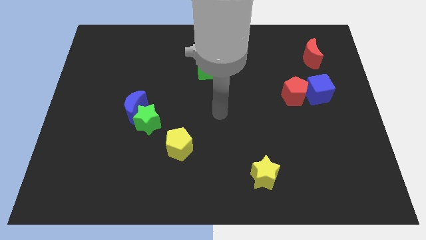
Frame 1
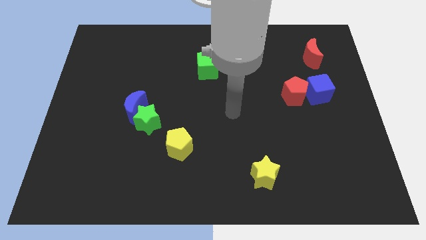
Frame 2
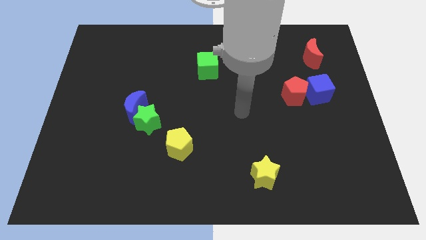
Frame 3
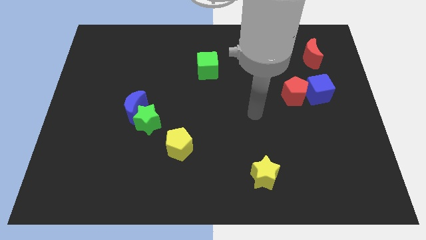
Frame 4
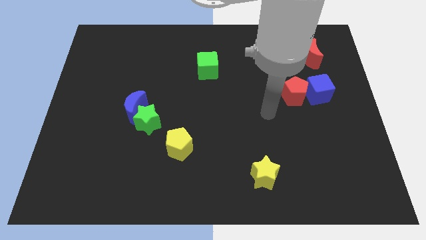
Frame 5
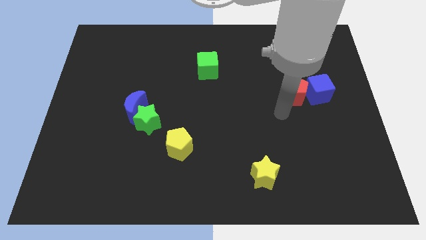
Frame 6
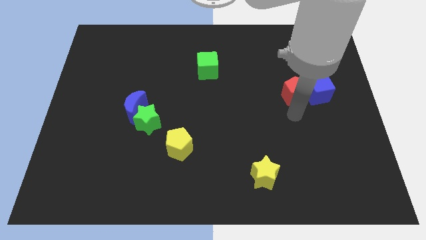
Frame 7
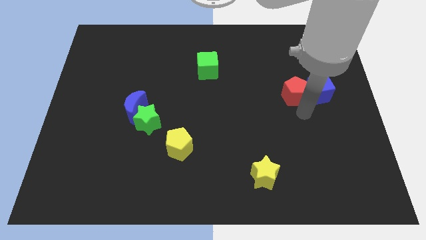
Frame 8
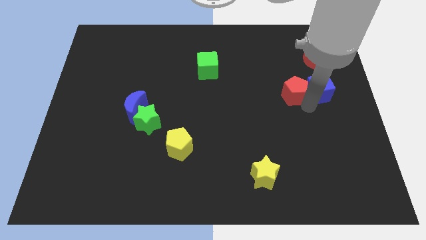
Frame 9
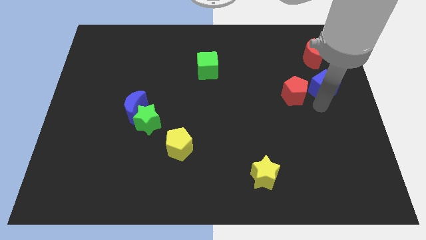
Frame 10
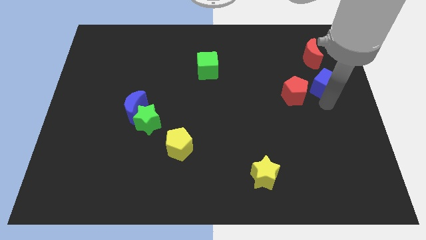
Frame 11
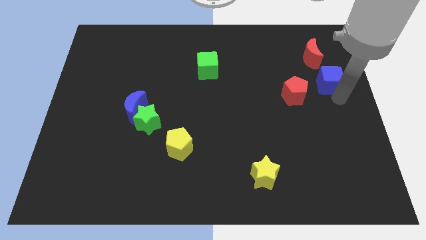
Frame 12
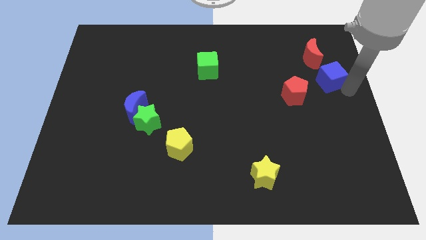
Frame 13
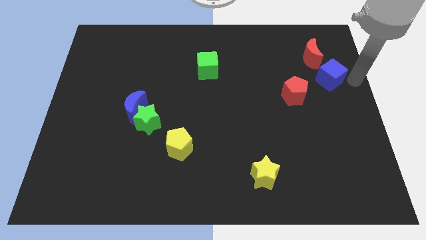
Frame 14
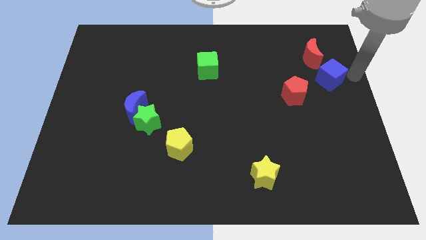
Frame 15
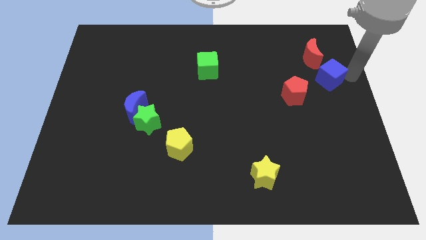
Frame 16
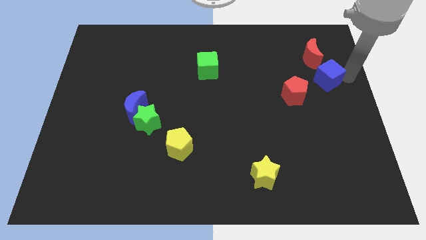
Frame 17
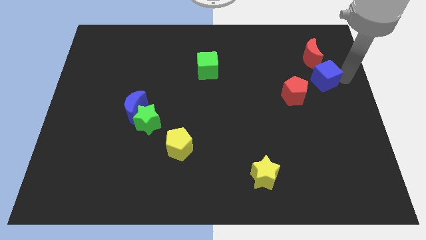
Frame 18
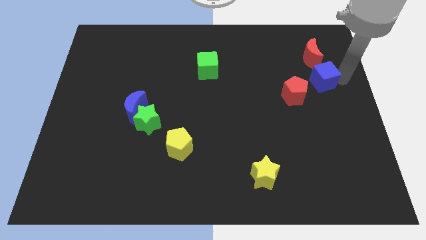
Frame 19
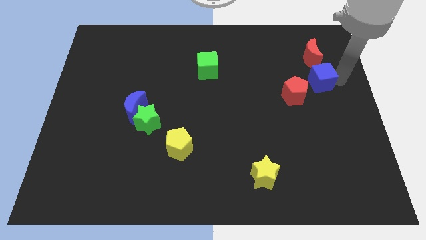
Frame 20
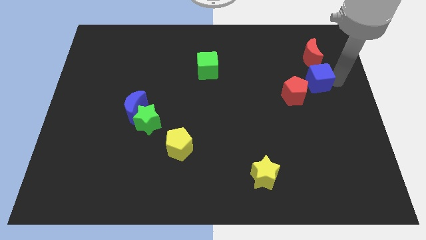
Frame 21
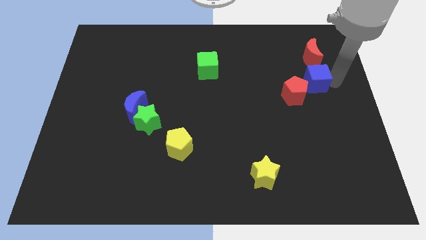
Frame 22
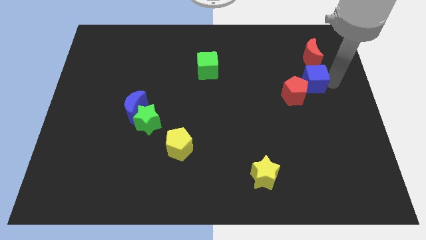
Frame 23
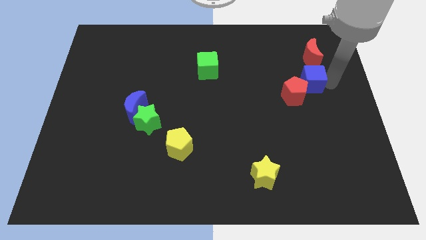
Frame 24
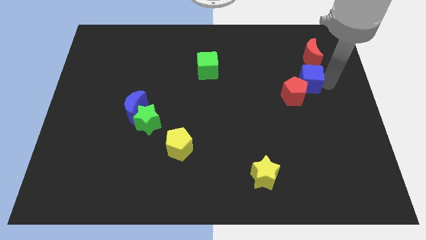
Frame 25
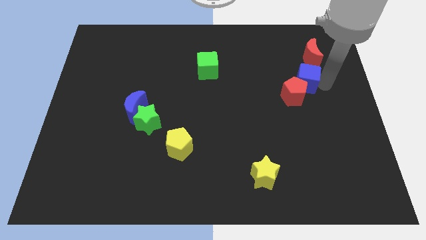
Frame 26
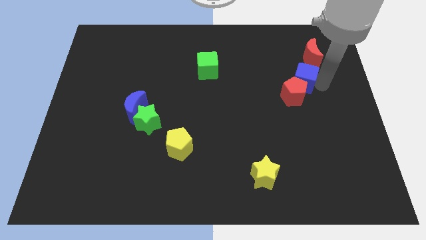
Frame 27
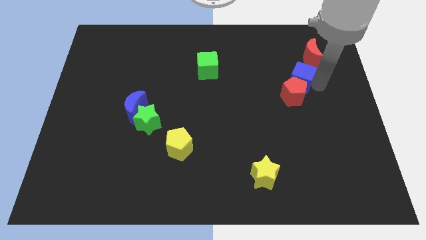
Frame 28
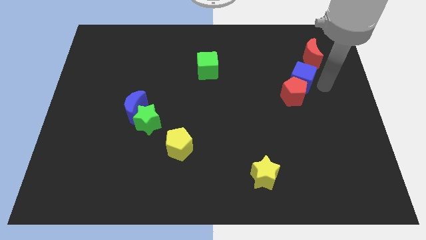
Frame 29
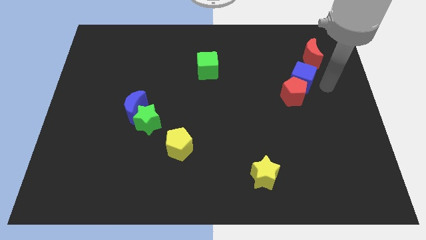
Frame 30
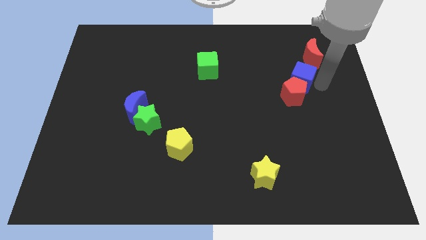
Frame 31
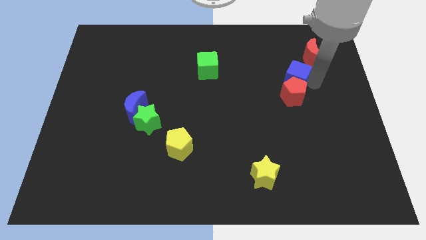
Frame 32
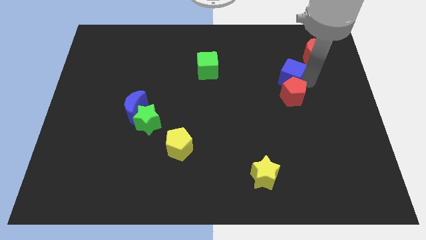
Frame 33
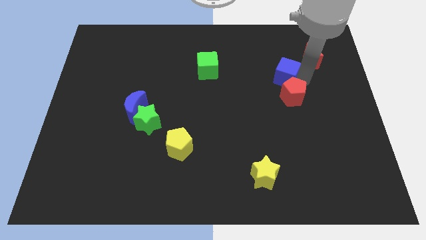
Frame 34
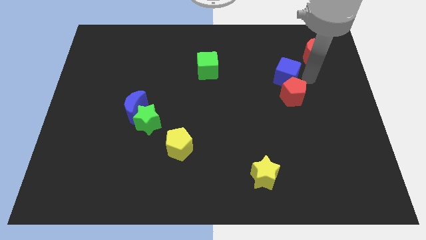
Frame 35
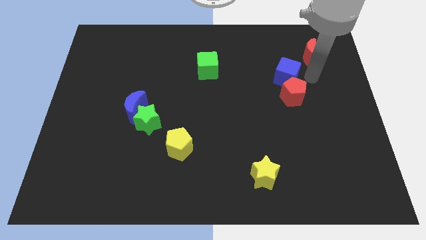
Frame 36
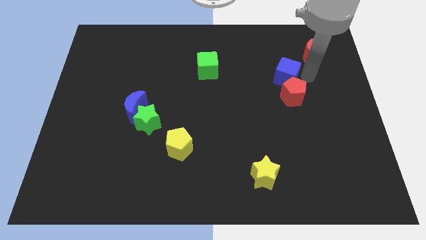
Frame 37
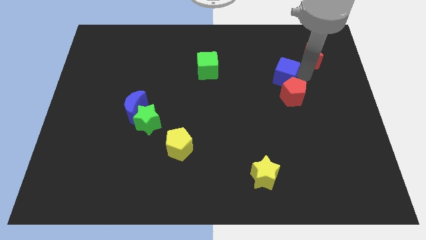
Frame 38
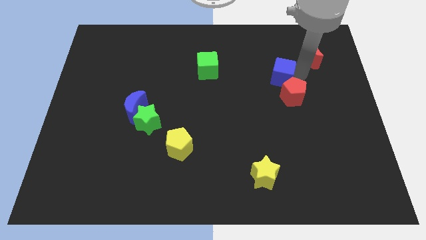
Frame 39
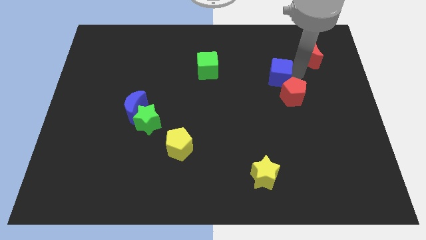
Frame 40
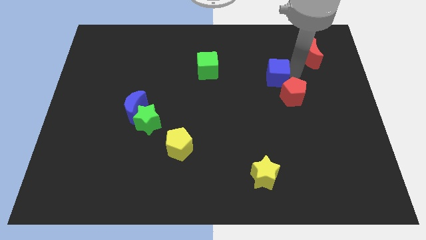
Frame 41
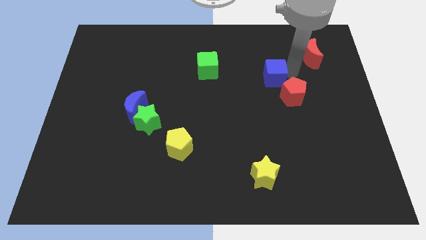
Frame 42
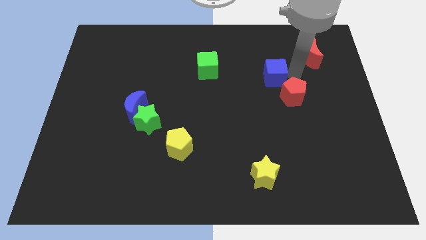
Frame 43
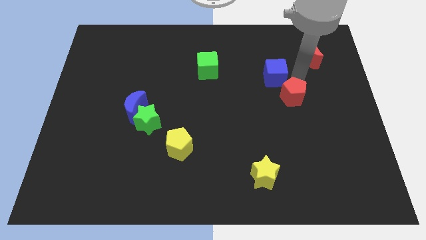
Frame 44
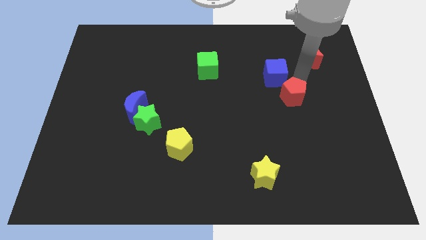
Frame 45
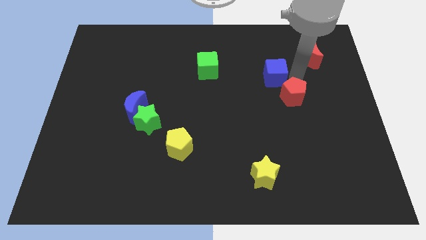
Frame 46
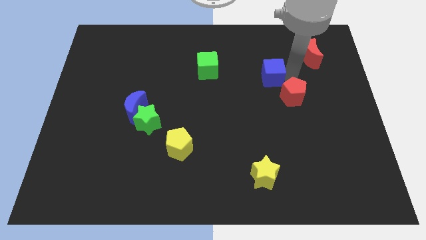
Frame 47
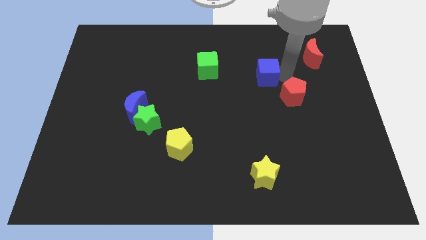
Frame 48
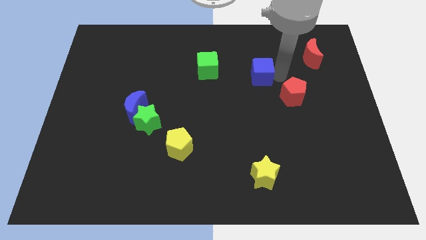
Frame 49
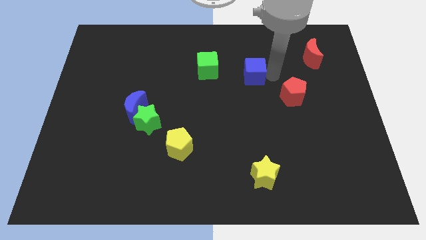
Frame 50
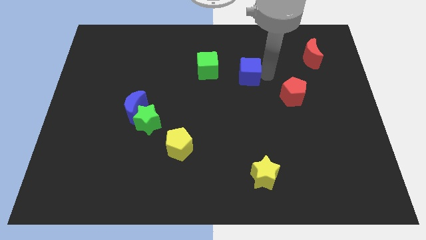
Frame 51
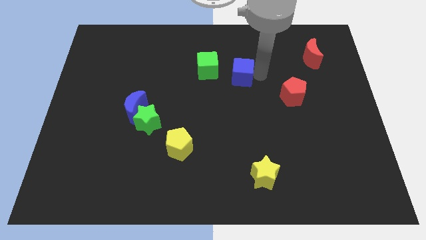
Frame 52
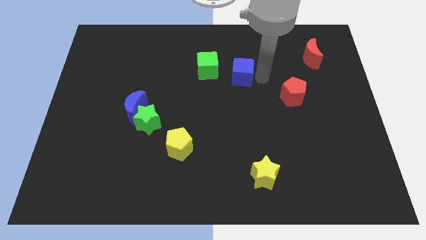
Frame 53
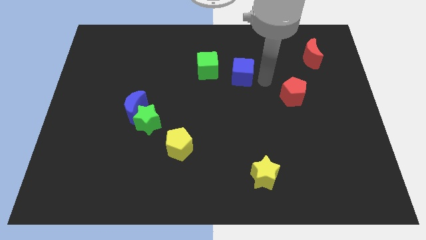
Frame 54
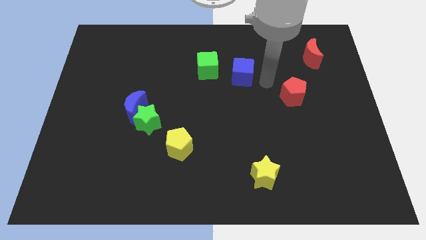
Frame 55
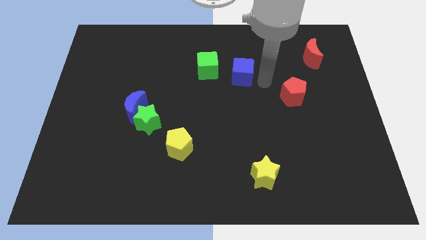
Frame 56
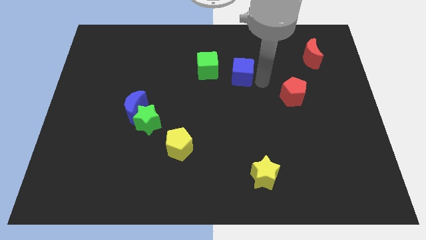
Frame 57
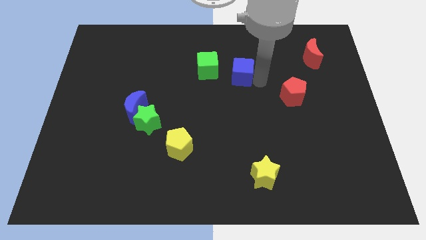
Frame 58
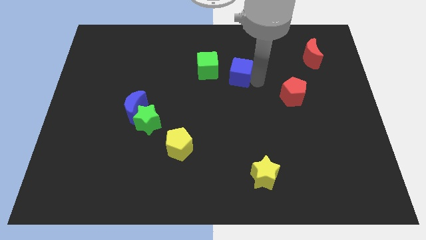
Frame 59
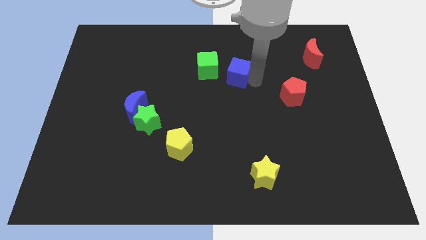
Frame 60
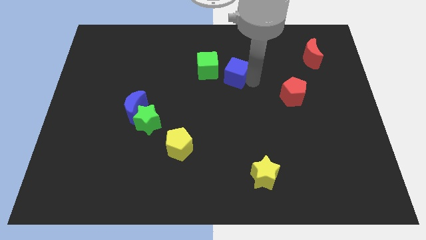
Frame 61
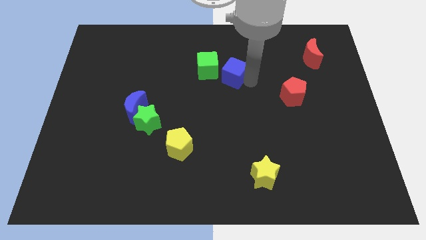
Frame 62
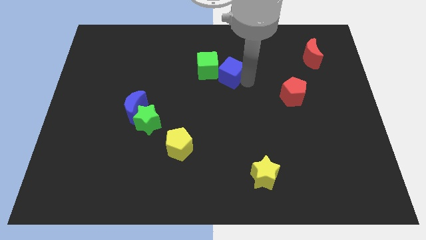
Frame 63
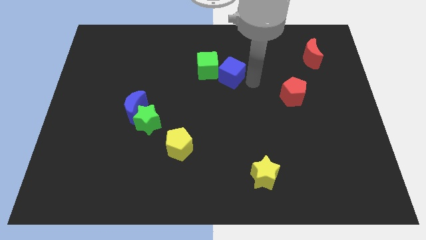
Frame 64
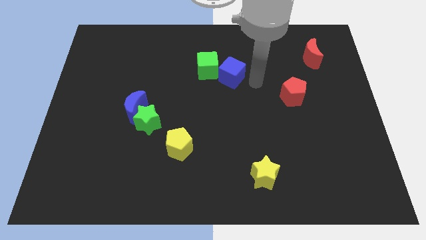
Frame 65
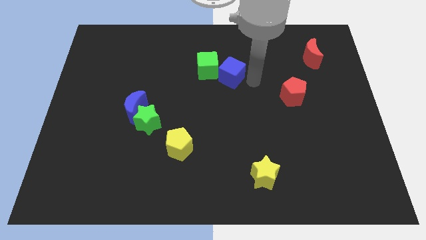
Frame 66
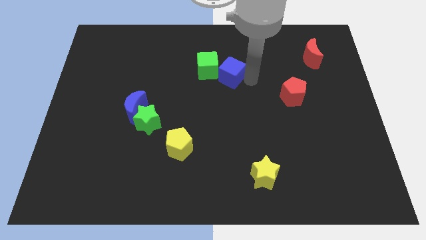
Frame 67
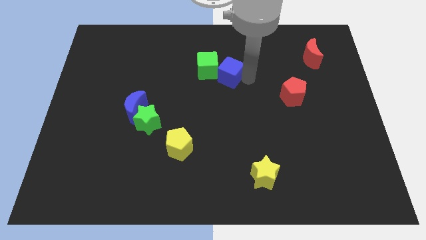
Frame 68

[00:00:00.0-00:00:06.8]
move the blue cube to the green cube
